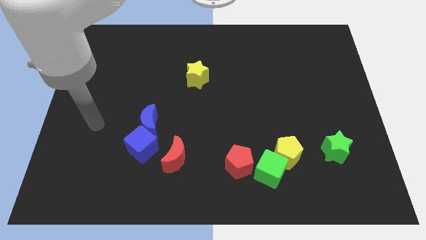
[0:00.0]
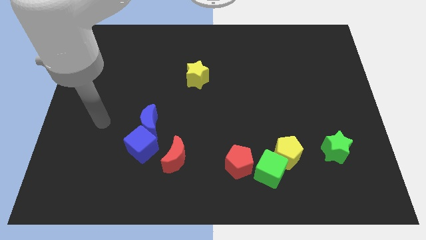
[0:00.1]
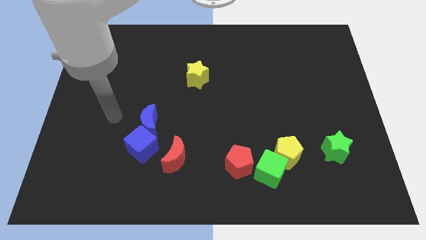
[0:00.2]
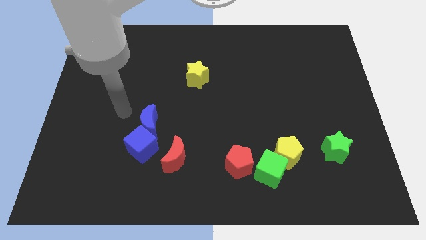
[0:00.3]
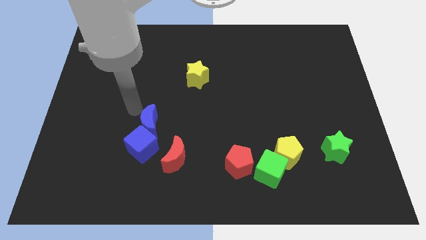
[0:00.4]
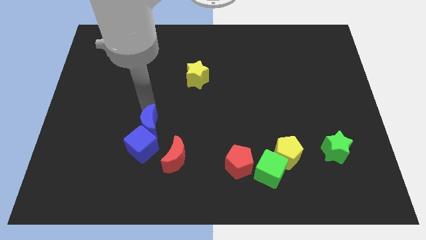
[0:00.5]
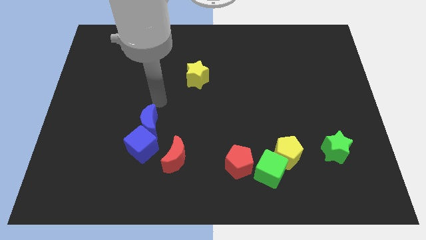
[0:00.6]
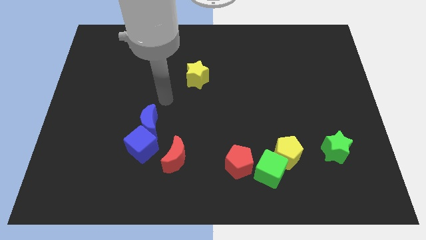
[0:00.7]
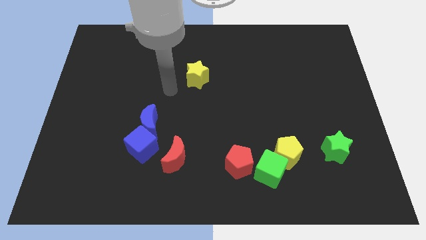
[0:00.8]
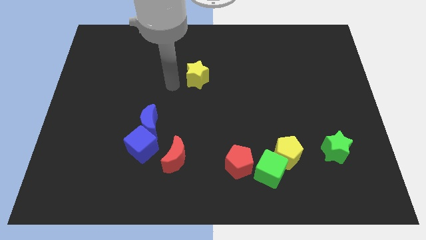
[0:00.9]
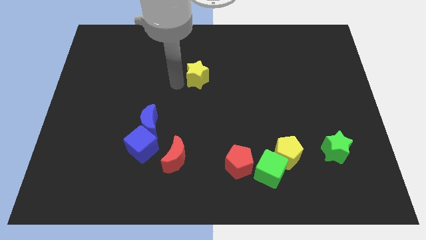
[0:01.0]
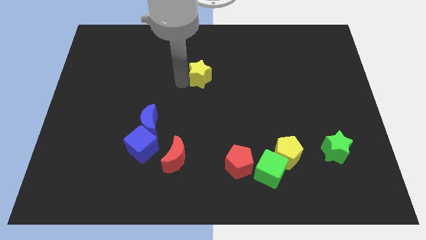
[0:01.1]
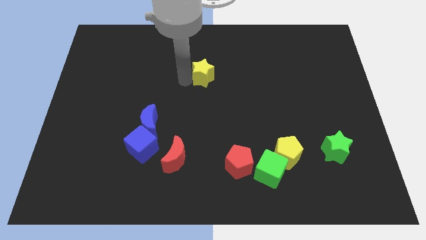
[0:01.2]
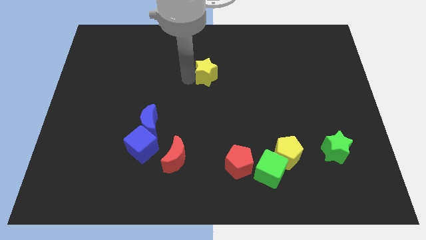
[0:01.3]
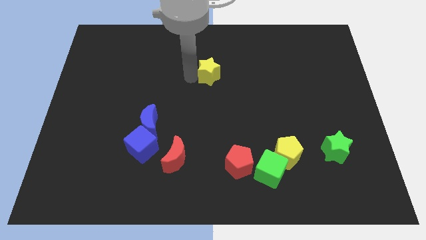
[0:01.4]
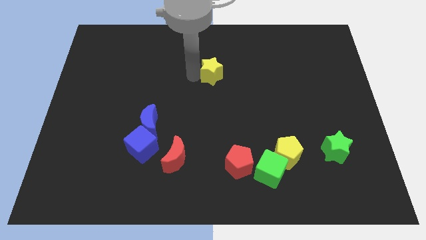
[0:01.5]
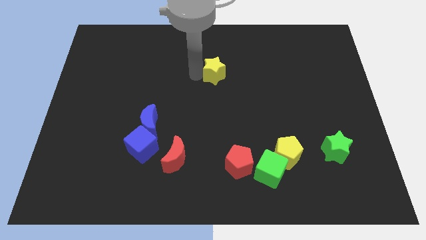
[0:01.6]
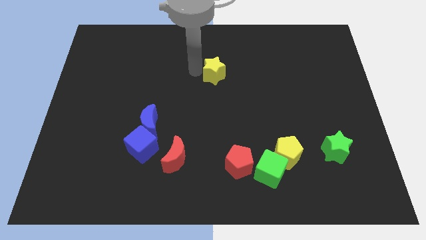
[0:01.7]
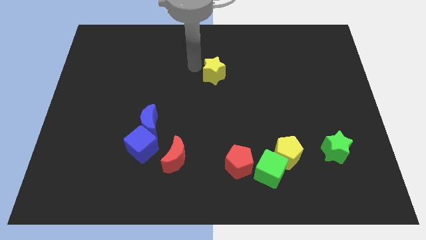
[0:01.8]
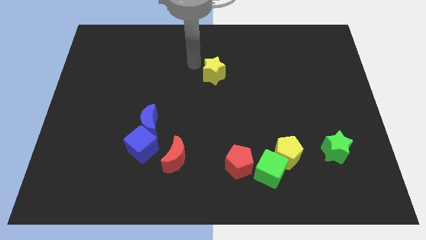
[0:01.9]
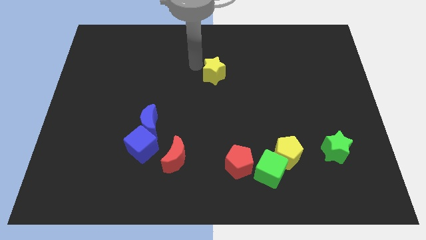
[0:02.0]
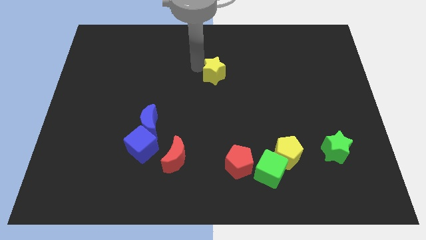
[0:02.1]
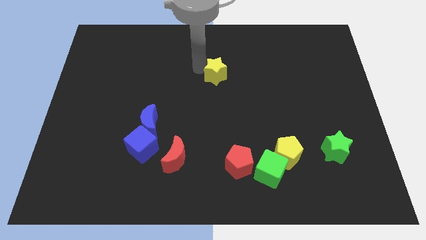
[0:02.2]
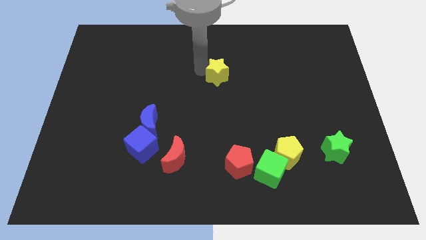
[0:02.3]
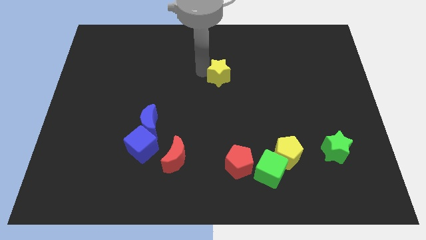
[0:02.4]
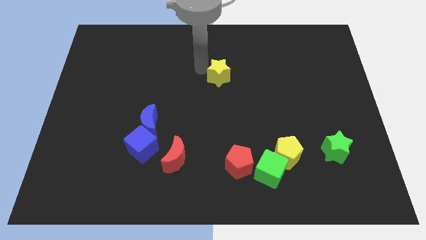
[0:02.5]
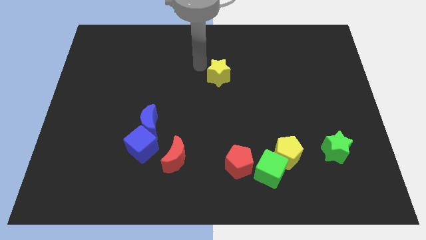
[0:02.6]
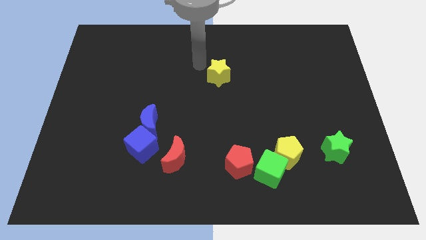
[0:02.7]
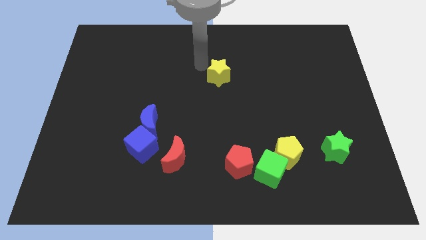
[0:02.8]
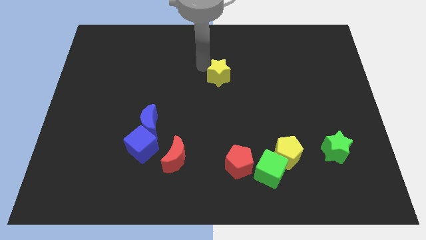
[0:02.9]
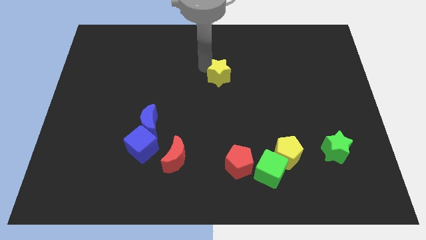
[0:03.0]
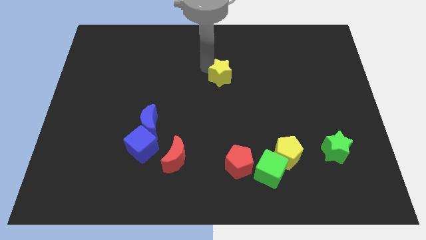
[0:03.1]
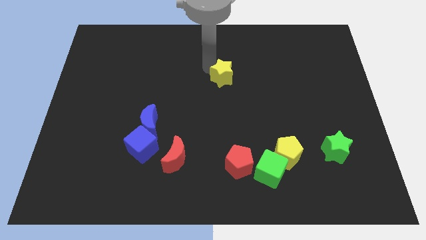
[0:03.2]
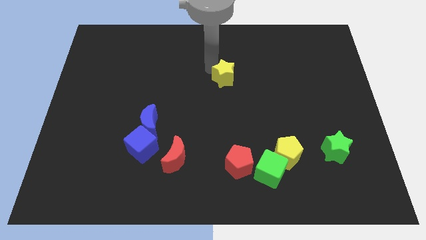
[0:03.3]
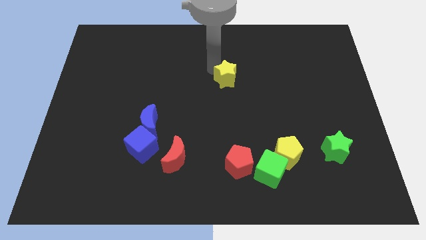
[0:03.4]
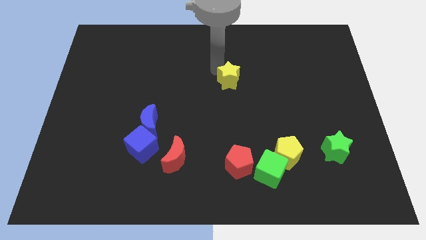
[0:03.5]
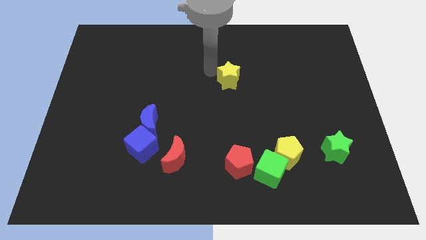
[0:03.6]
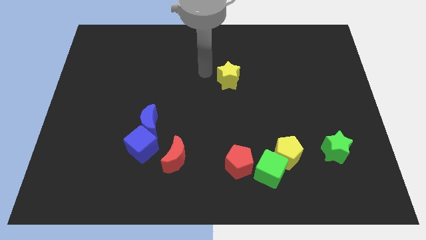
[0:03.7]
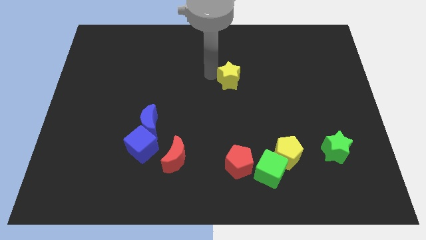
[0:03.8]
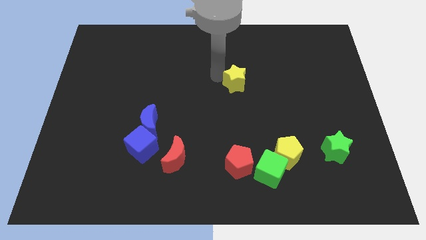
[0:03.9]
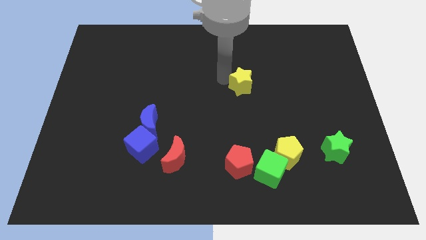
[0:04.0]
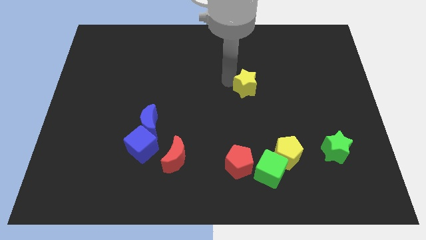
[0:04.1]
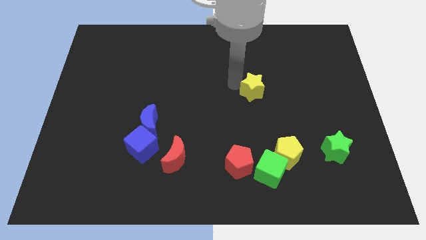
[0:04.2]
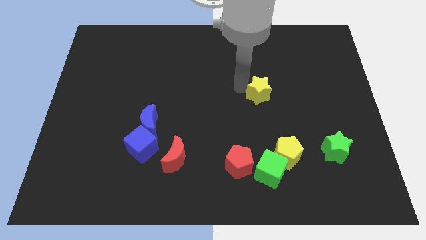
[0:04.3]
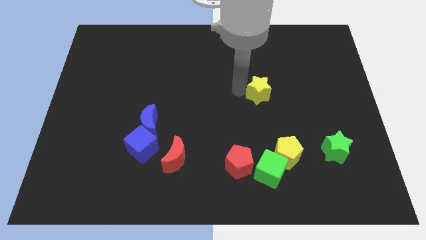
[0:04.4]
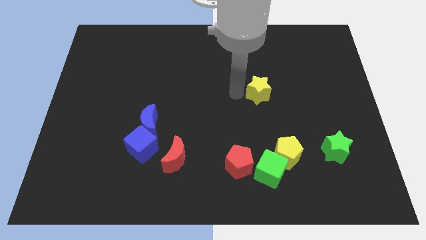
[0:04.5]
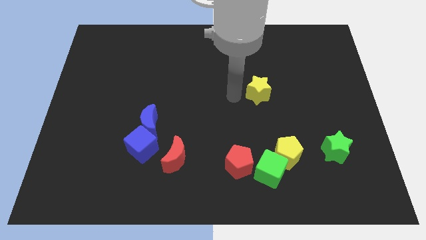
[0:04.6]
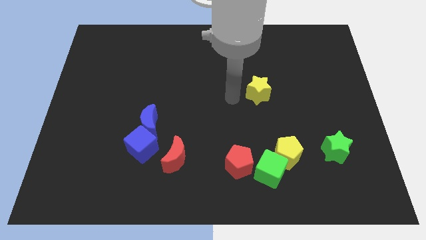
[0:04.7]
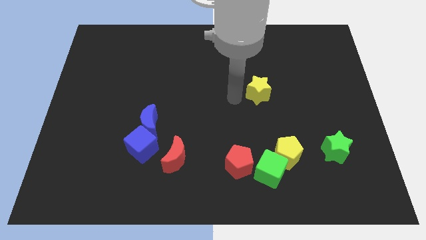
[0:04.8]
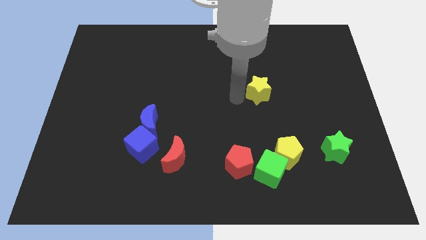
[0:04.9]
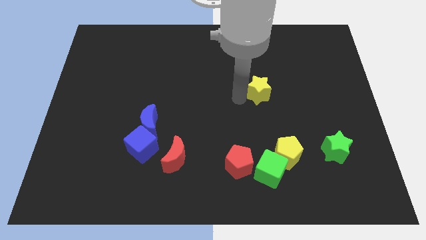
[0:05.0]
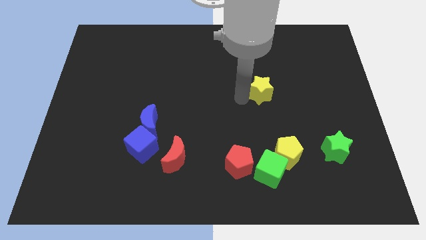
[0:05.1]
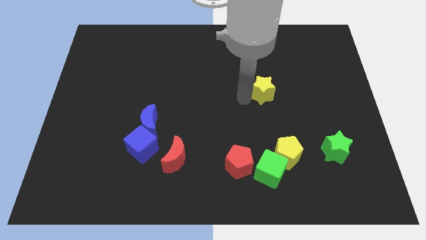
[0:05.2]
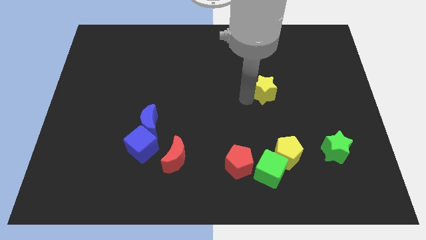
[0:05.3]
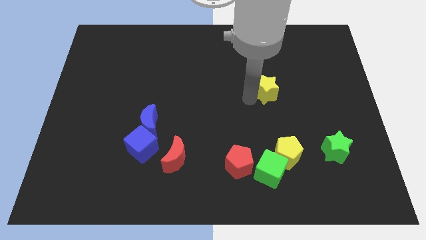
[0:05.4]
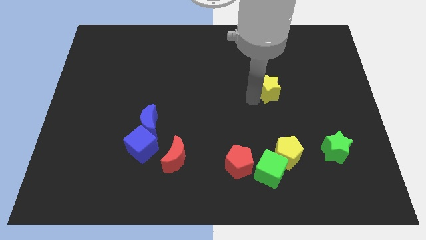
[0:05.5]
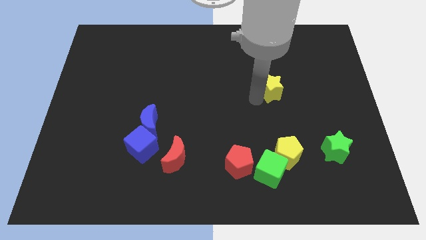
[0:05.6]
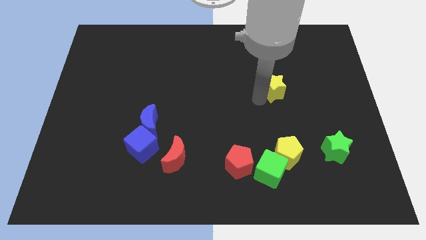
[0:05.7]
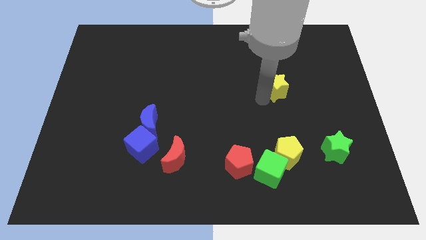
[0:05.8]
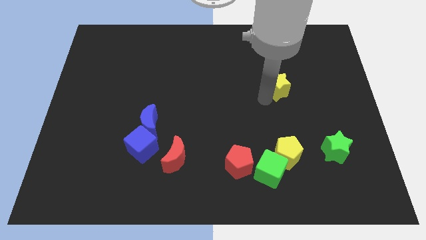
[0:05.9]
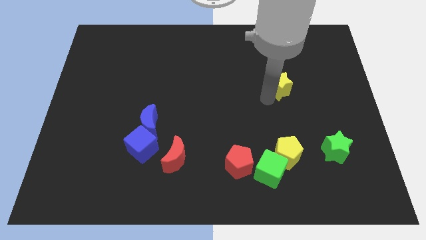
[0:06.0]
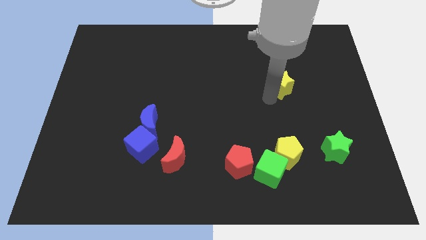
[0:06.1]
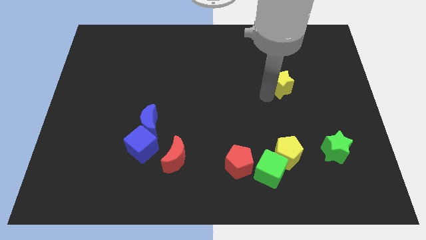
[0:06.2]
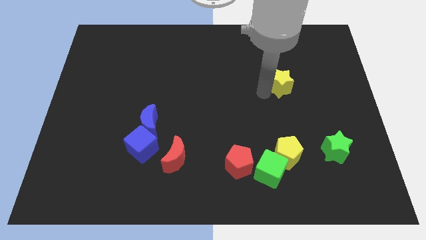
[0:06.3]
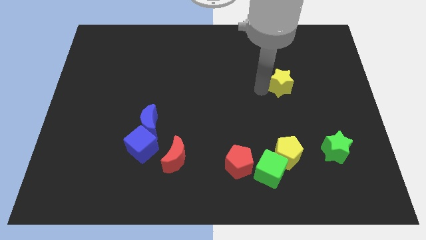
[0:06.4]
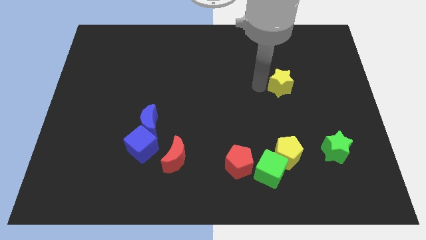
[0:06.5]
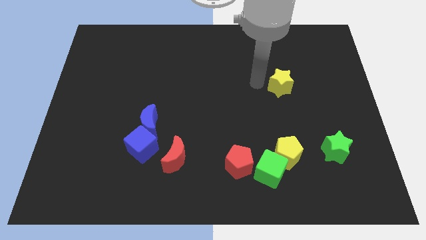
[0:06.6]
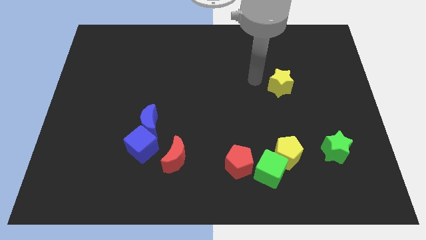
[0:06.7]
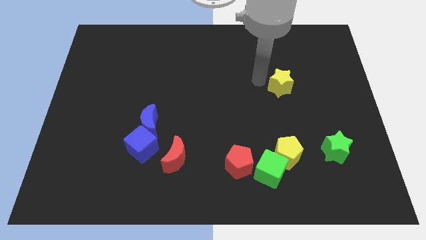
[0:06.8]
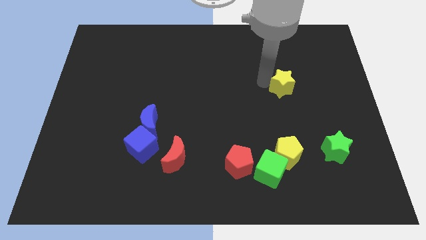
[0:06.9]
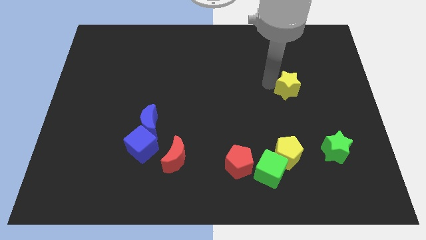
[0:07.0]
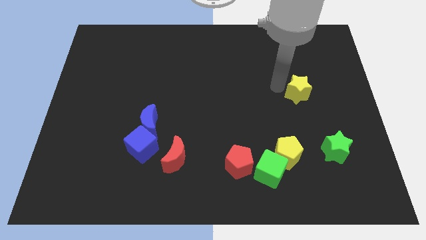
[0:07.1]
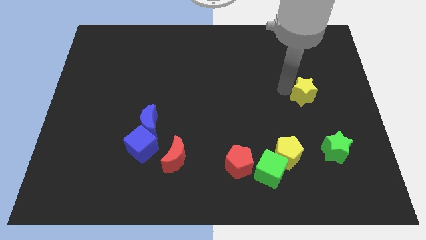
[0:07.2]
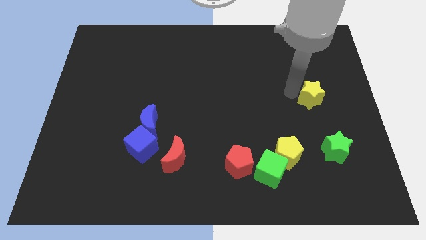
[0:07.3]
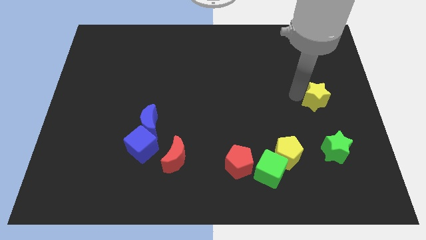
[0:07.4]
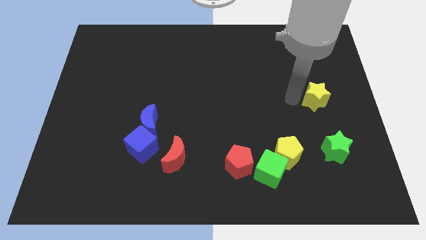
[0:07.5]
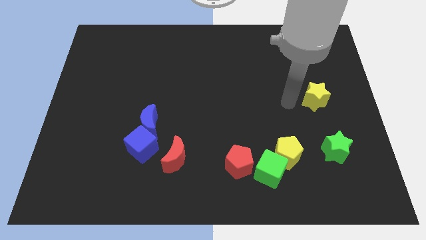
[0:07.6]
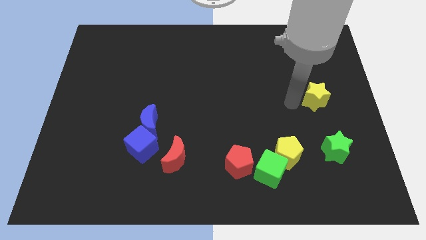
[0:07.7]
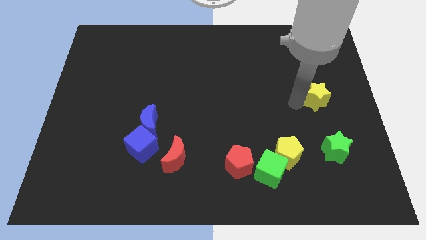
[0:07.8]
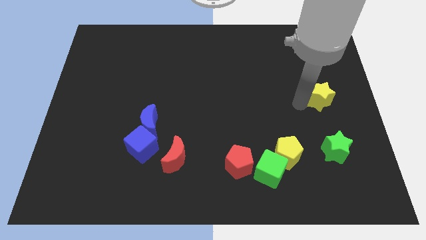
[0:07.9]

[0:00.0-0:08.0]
move the yellow star to the center right
